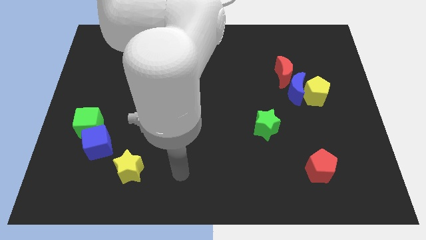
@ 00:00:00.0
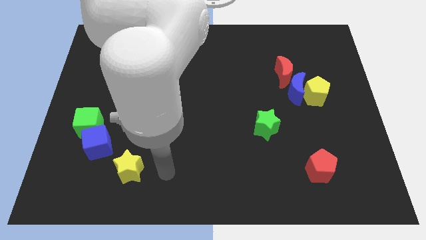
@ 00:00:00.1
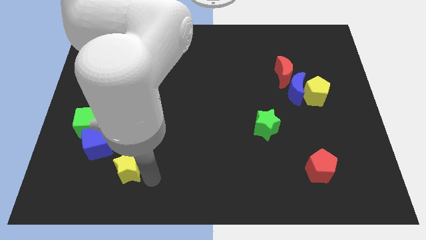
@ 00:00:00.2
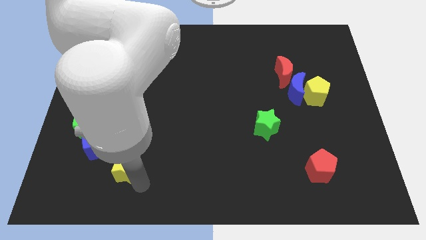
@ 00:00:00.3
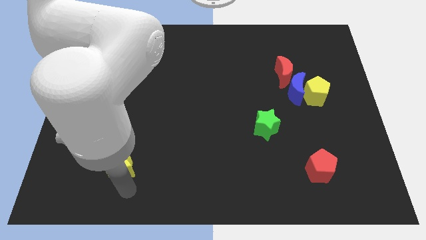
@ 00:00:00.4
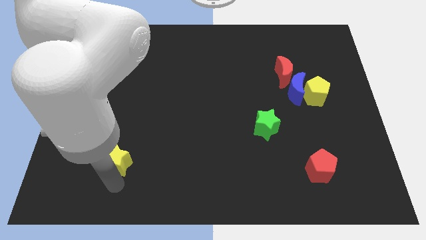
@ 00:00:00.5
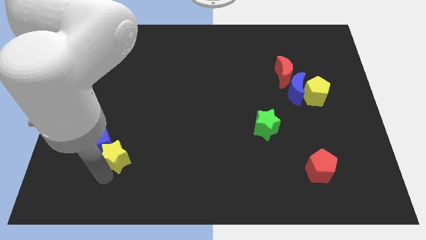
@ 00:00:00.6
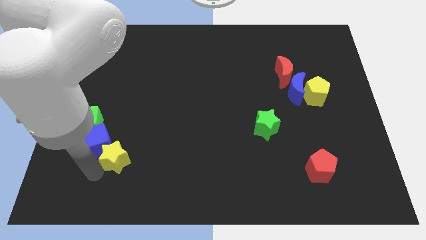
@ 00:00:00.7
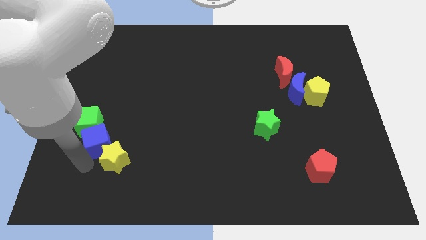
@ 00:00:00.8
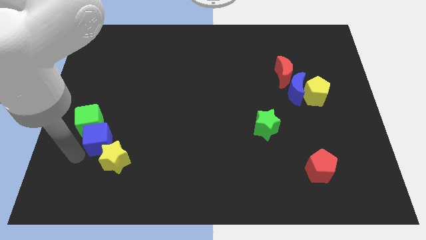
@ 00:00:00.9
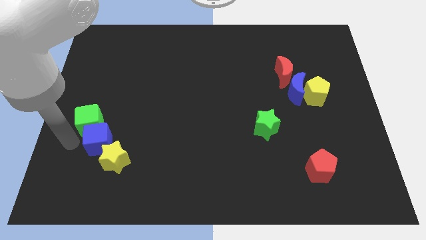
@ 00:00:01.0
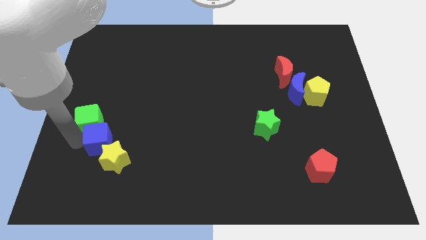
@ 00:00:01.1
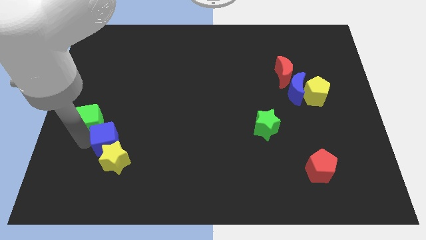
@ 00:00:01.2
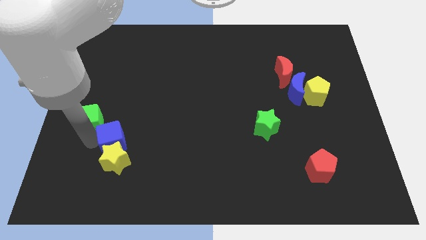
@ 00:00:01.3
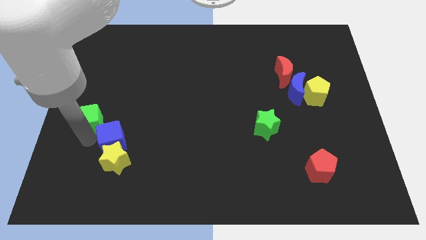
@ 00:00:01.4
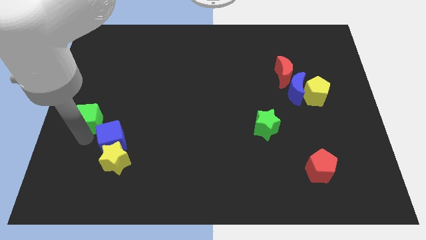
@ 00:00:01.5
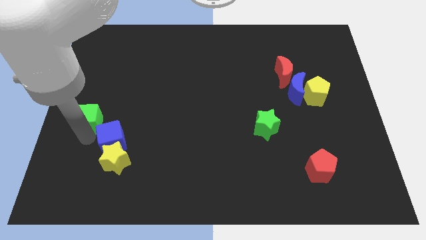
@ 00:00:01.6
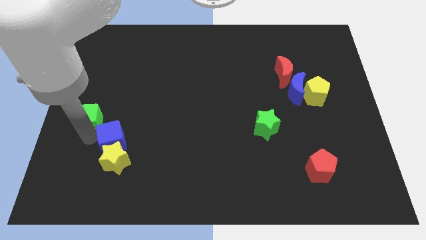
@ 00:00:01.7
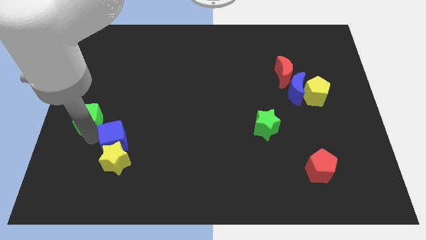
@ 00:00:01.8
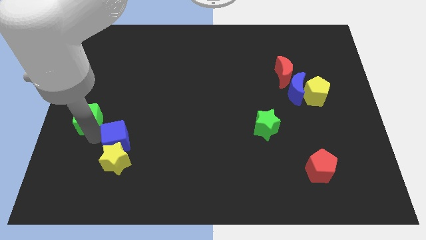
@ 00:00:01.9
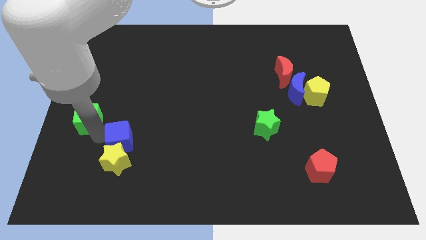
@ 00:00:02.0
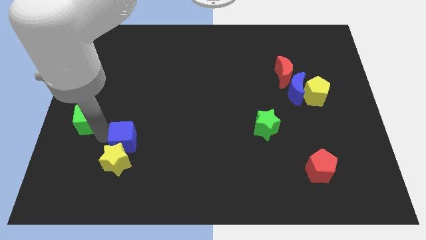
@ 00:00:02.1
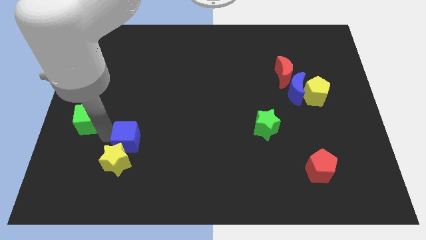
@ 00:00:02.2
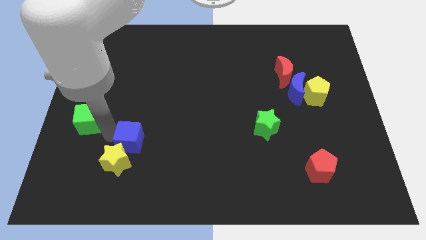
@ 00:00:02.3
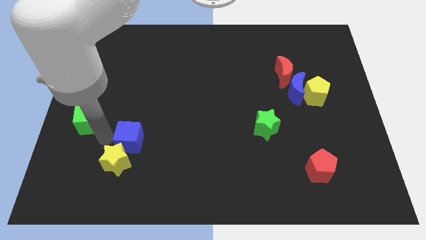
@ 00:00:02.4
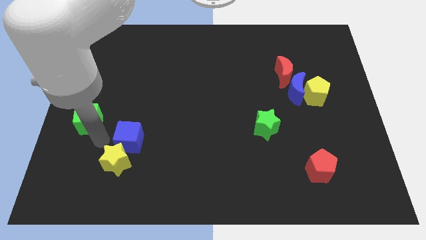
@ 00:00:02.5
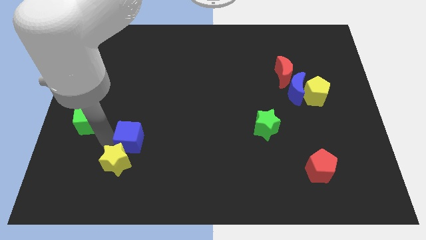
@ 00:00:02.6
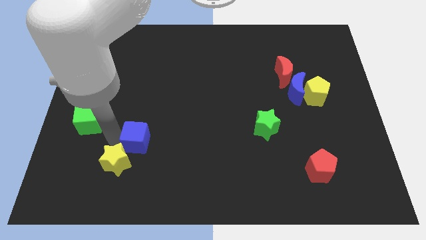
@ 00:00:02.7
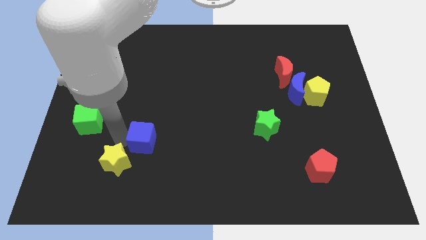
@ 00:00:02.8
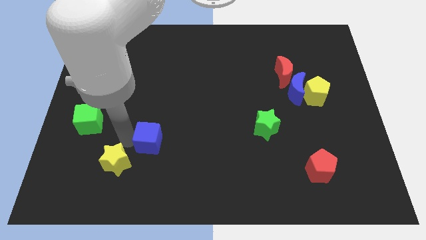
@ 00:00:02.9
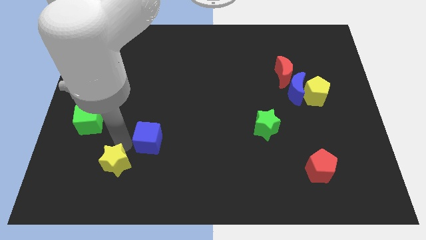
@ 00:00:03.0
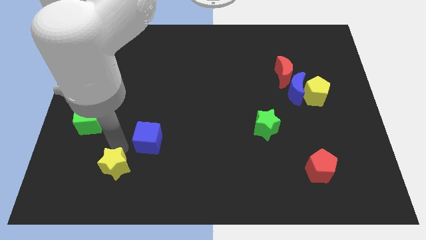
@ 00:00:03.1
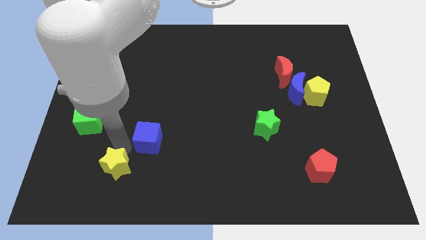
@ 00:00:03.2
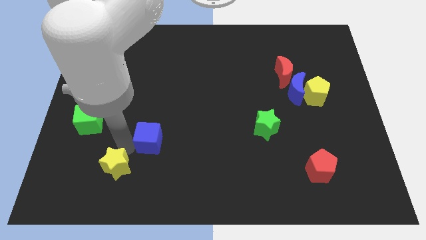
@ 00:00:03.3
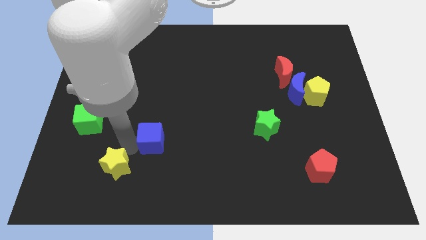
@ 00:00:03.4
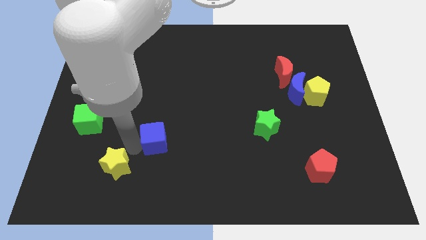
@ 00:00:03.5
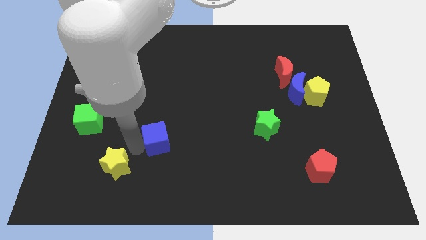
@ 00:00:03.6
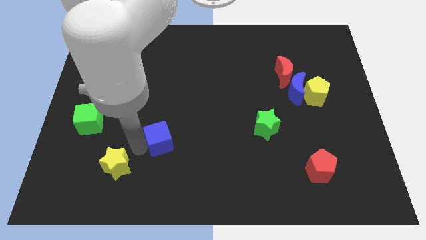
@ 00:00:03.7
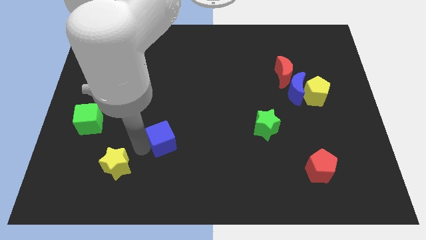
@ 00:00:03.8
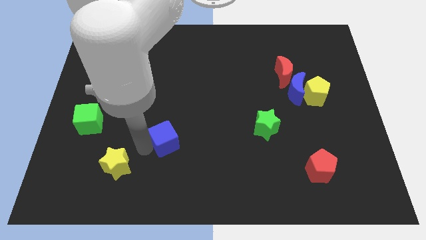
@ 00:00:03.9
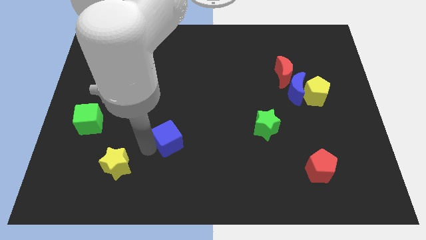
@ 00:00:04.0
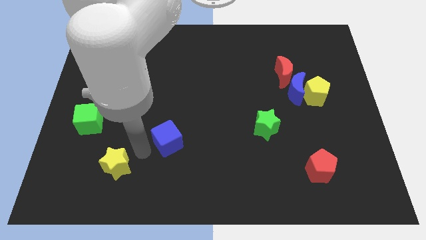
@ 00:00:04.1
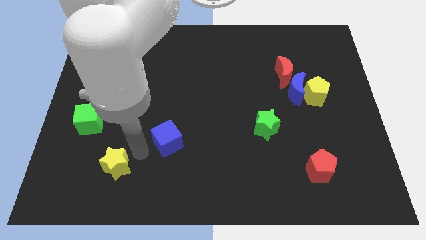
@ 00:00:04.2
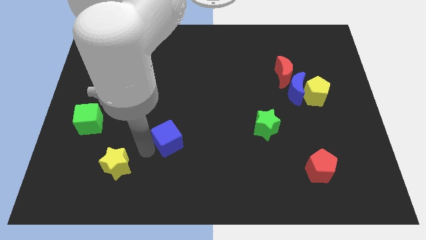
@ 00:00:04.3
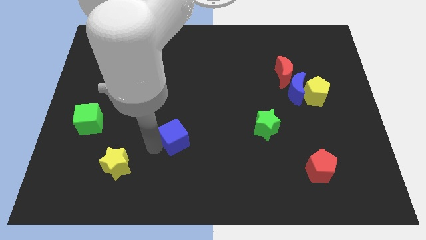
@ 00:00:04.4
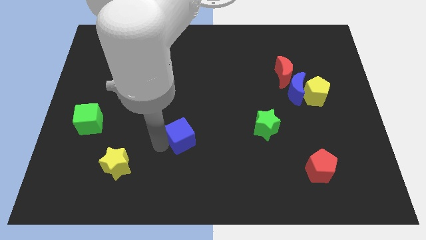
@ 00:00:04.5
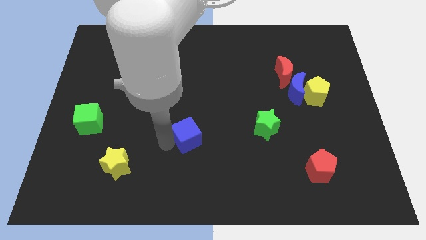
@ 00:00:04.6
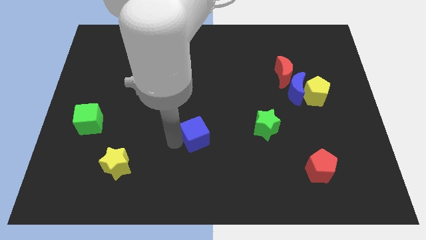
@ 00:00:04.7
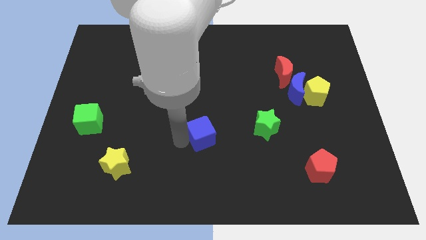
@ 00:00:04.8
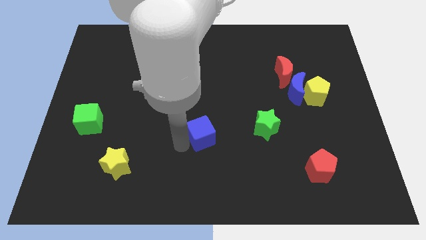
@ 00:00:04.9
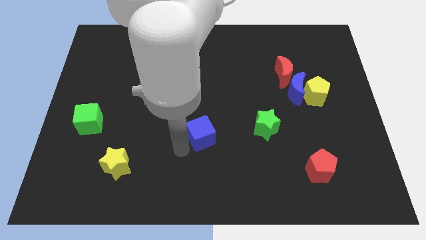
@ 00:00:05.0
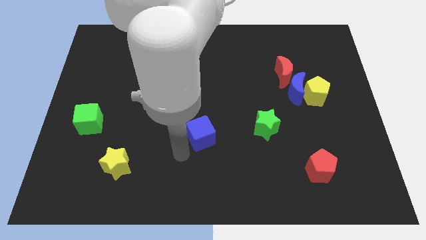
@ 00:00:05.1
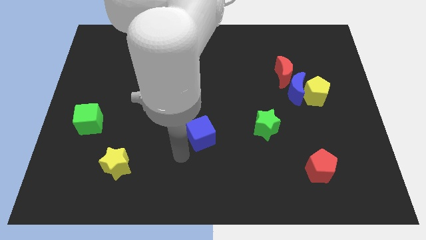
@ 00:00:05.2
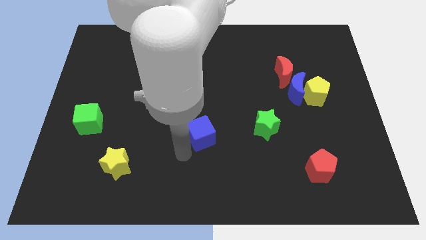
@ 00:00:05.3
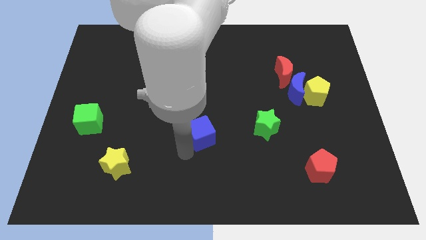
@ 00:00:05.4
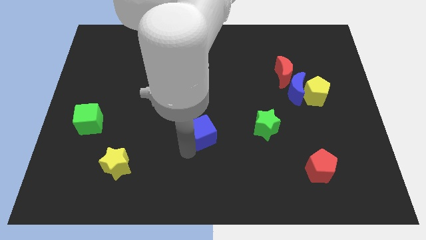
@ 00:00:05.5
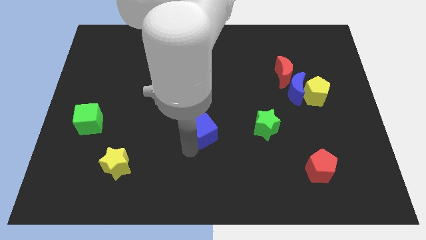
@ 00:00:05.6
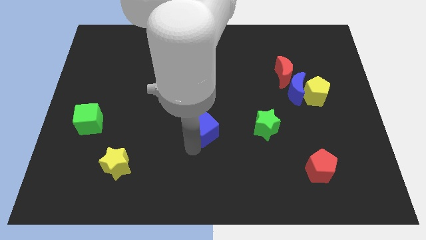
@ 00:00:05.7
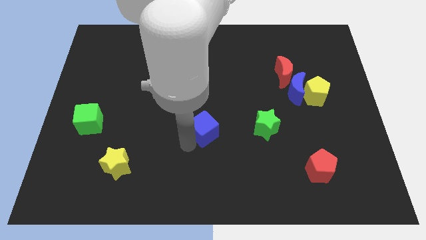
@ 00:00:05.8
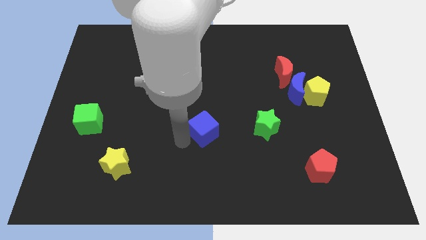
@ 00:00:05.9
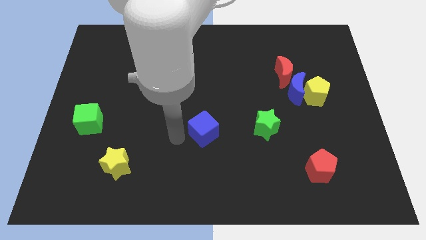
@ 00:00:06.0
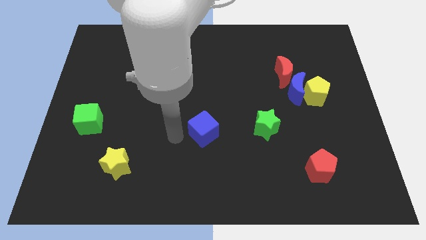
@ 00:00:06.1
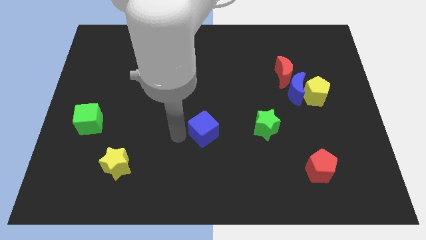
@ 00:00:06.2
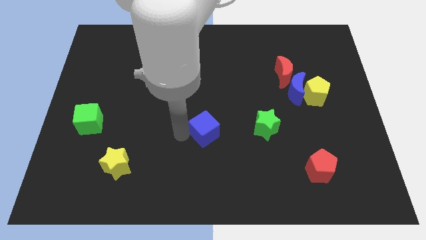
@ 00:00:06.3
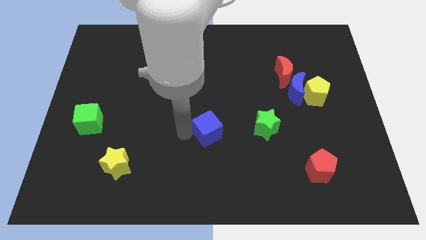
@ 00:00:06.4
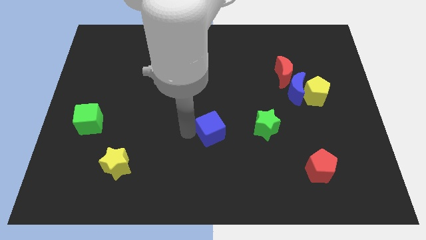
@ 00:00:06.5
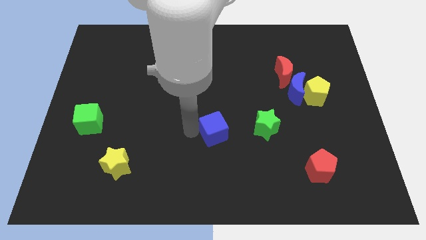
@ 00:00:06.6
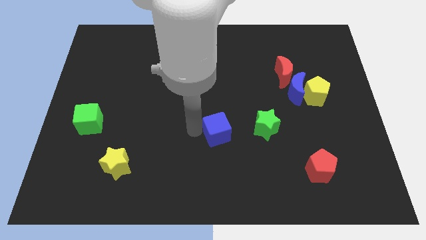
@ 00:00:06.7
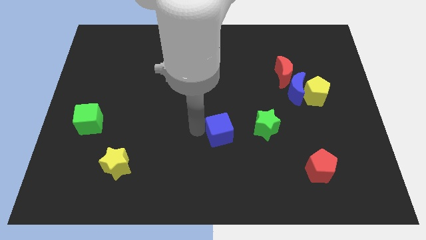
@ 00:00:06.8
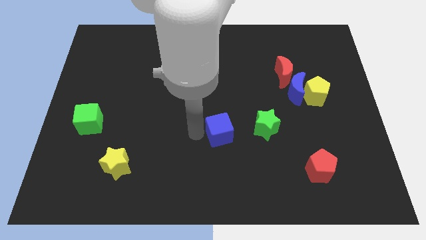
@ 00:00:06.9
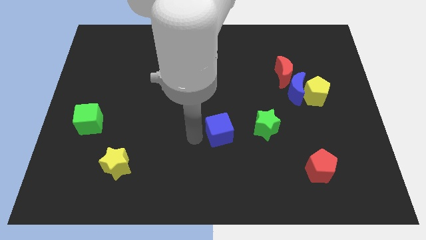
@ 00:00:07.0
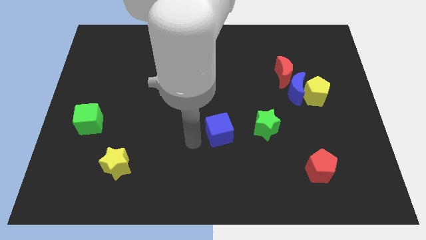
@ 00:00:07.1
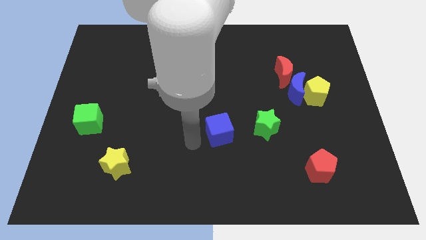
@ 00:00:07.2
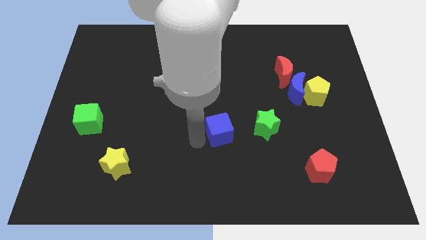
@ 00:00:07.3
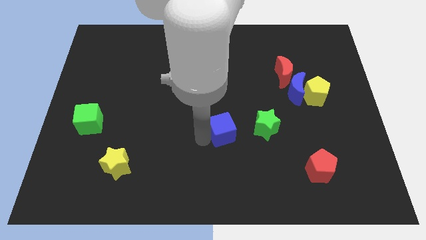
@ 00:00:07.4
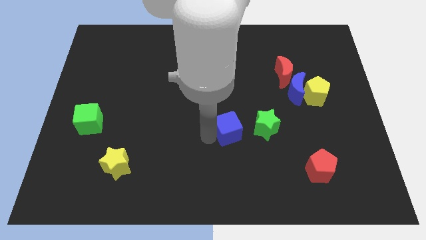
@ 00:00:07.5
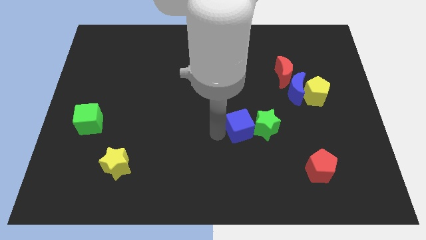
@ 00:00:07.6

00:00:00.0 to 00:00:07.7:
put the blue cube towards the green star
